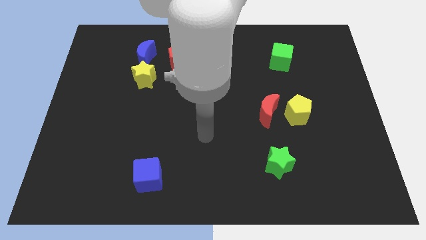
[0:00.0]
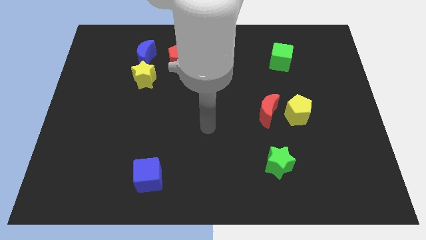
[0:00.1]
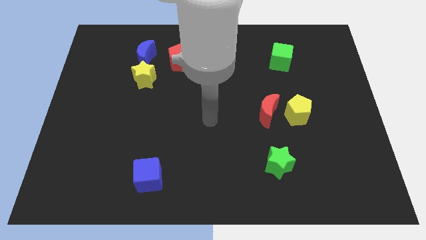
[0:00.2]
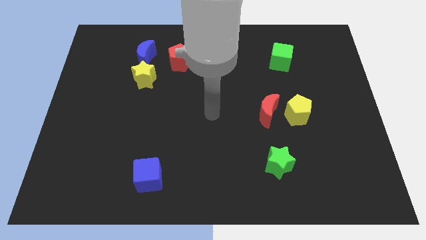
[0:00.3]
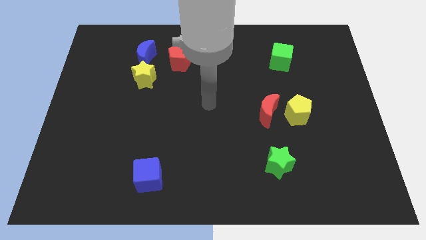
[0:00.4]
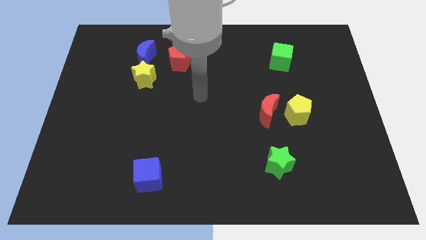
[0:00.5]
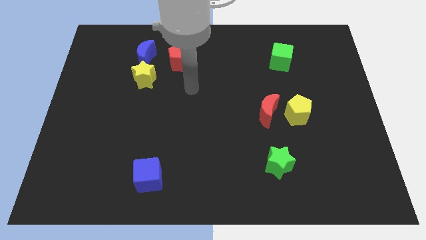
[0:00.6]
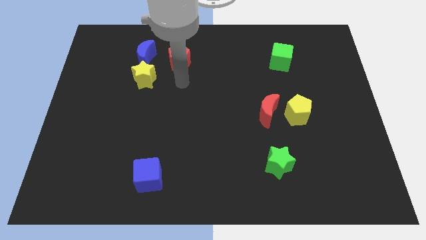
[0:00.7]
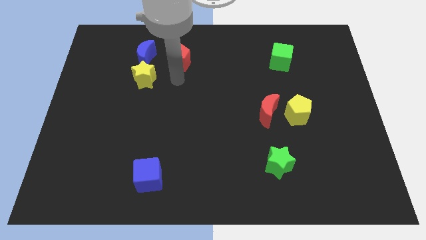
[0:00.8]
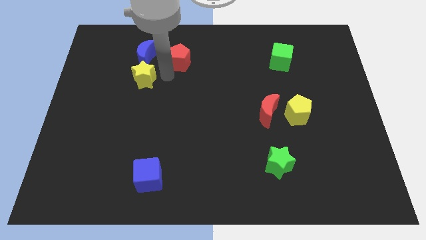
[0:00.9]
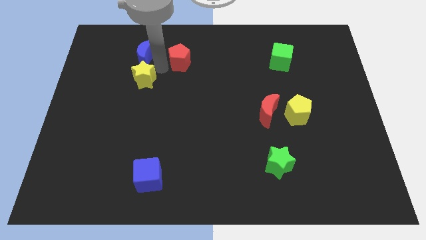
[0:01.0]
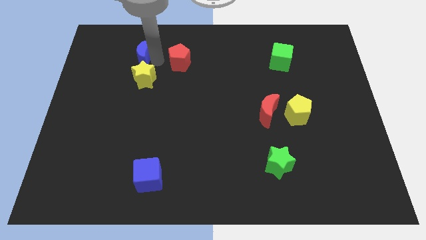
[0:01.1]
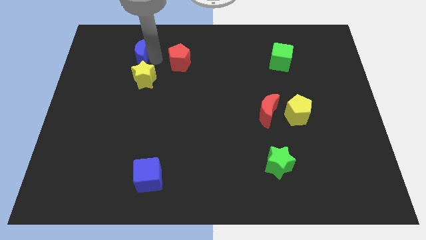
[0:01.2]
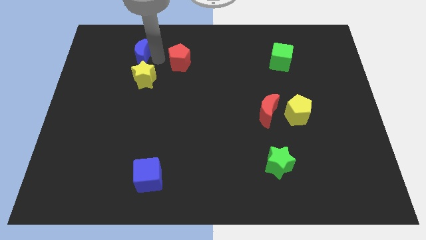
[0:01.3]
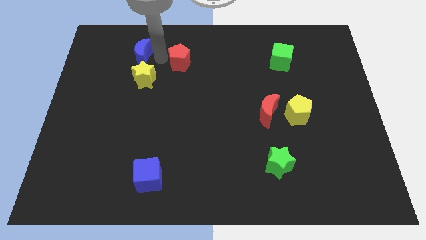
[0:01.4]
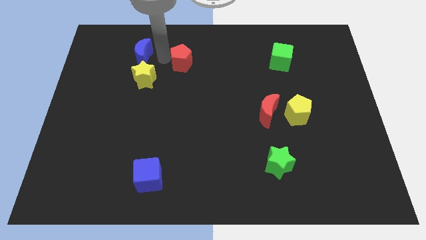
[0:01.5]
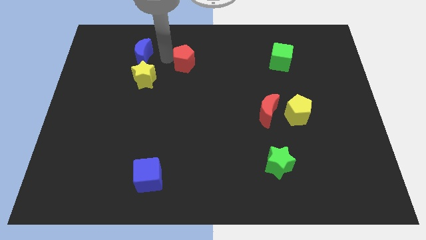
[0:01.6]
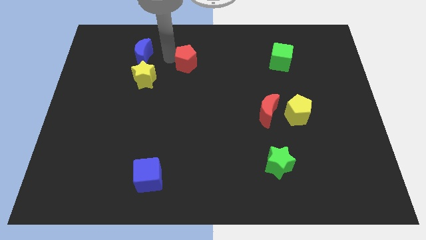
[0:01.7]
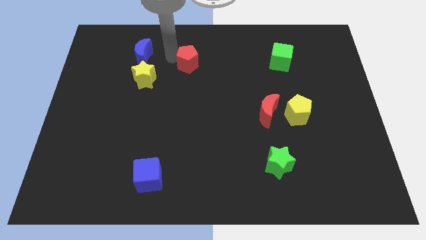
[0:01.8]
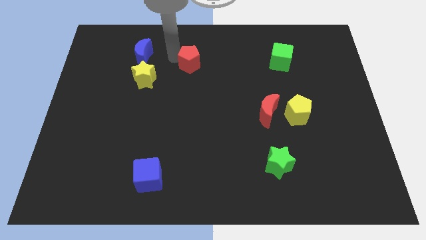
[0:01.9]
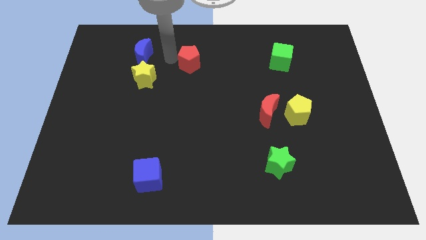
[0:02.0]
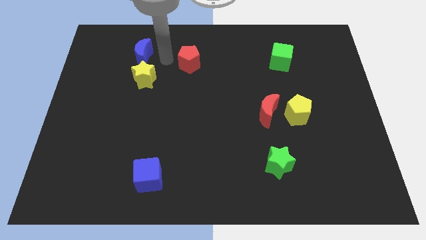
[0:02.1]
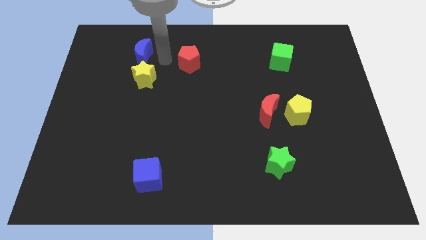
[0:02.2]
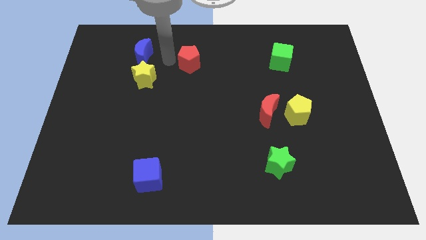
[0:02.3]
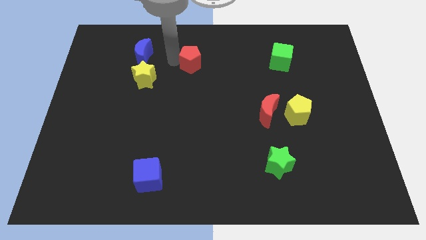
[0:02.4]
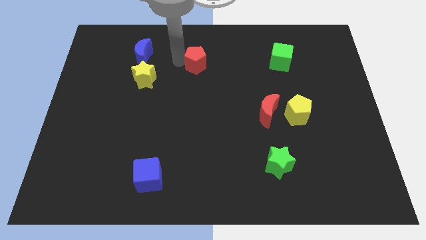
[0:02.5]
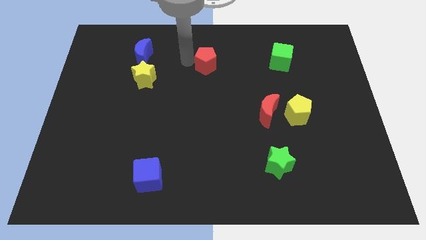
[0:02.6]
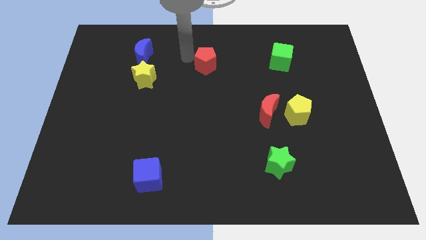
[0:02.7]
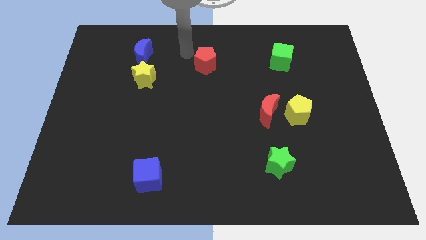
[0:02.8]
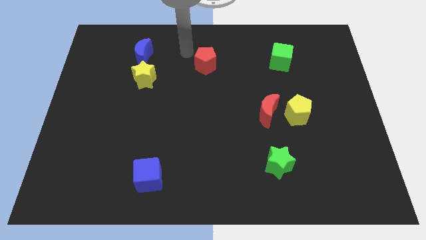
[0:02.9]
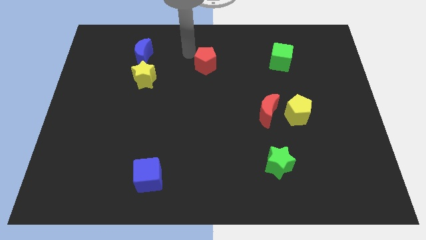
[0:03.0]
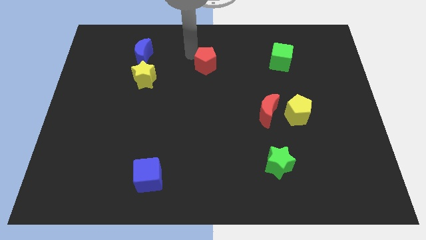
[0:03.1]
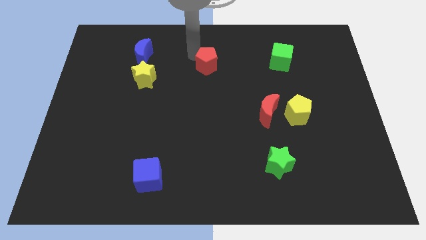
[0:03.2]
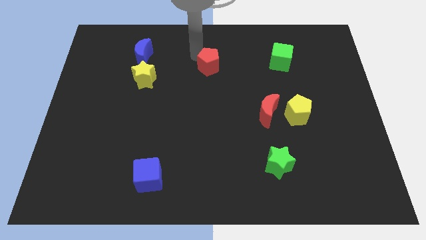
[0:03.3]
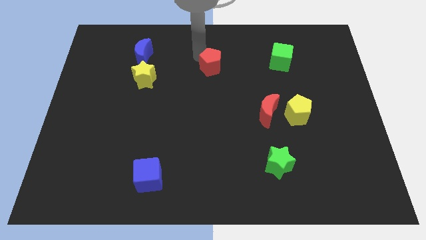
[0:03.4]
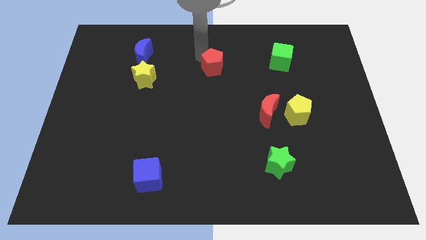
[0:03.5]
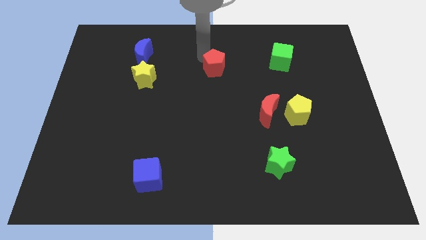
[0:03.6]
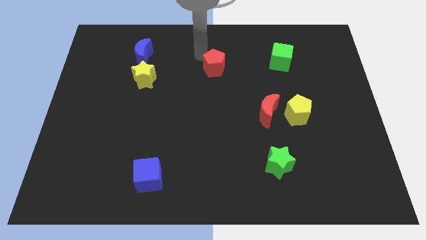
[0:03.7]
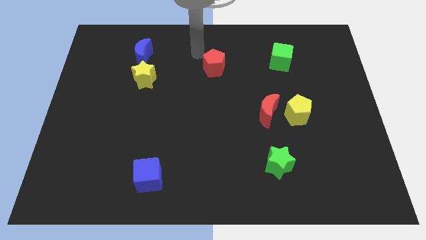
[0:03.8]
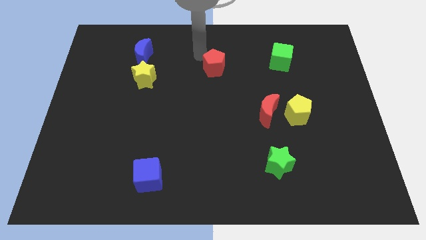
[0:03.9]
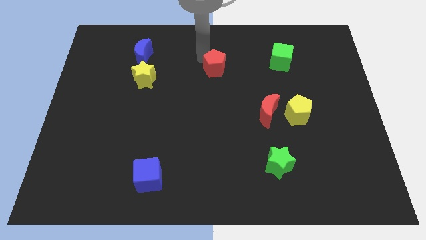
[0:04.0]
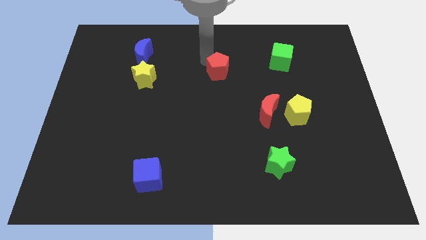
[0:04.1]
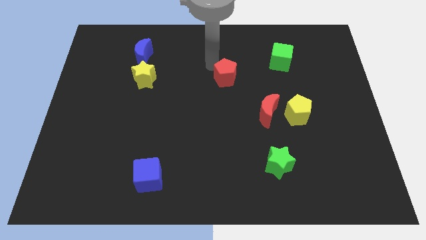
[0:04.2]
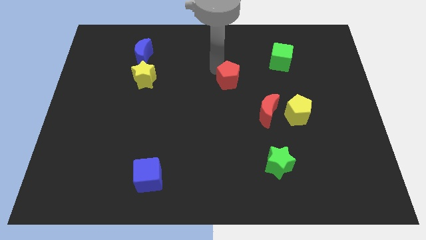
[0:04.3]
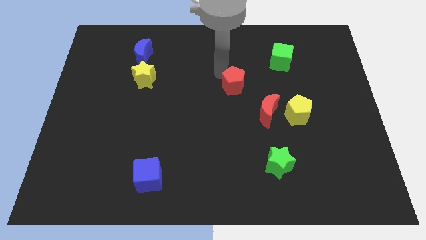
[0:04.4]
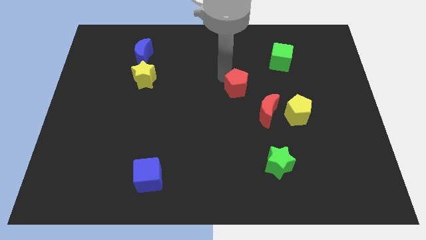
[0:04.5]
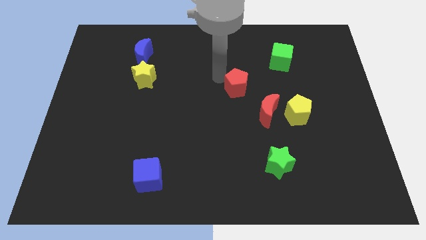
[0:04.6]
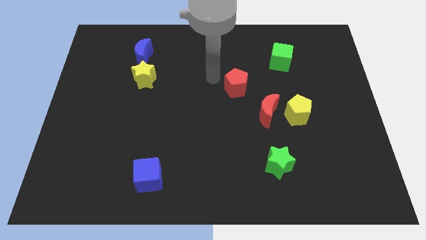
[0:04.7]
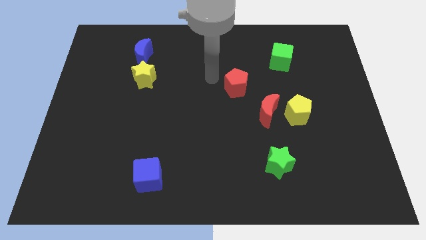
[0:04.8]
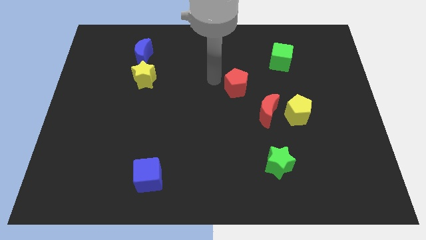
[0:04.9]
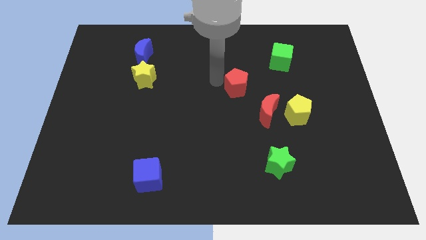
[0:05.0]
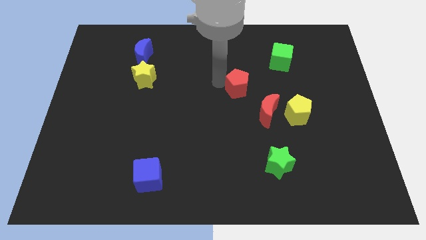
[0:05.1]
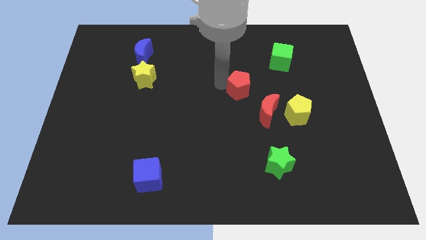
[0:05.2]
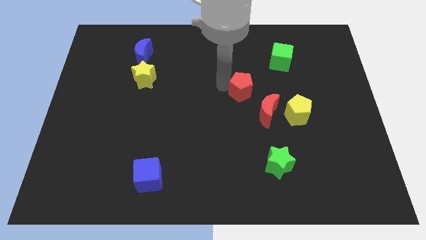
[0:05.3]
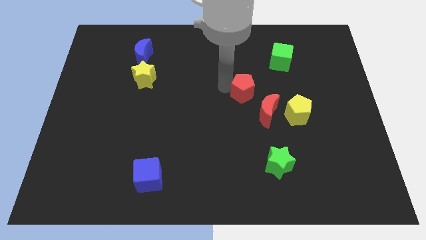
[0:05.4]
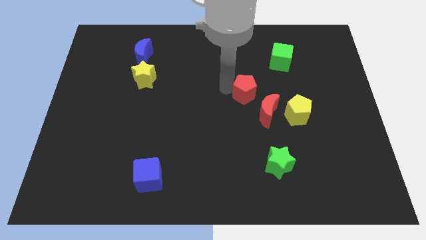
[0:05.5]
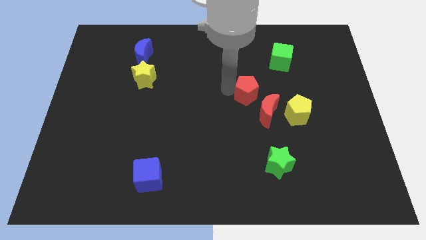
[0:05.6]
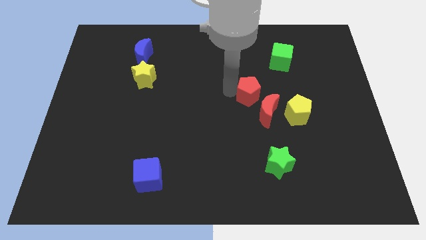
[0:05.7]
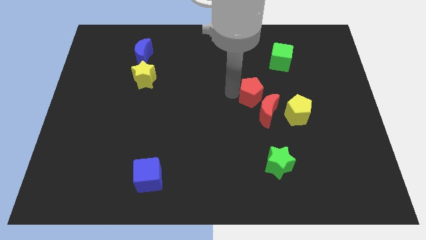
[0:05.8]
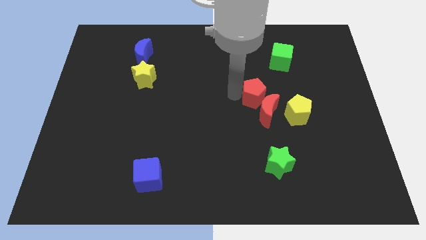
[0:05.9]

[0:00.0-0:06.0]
push the red pentagon to the top left of the yellow pentagon

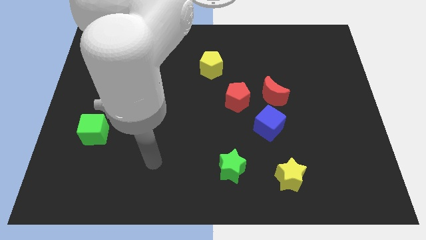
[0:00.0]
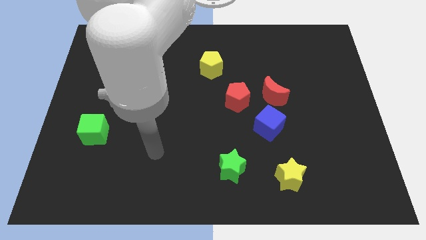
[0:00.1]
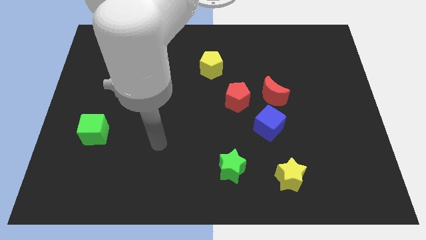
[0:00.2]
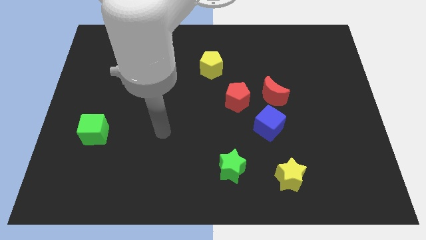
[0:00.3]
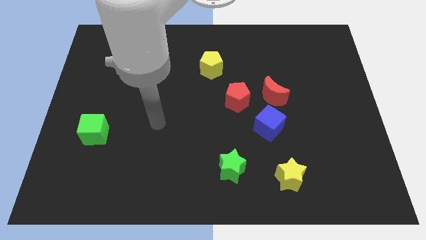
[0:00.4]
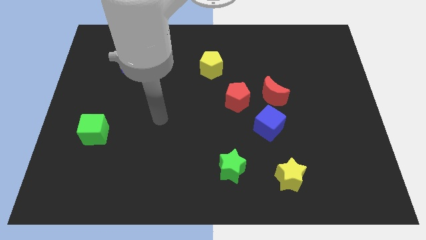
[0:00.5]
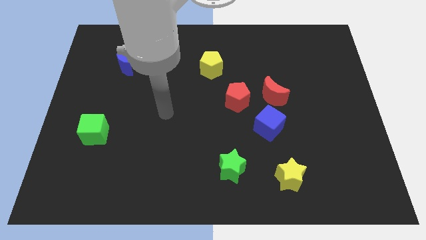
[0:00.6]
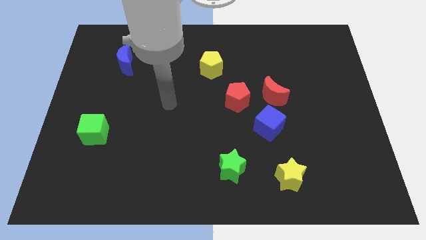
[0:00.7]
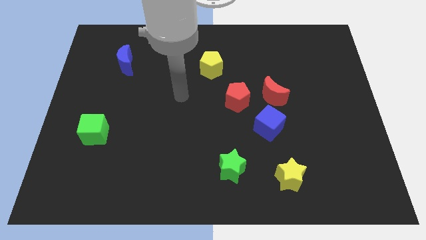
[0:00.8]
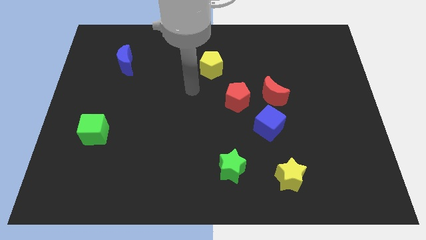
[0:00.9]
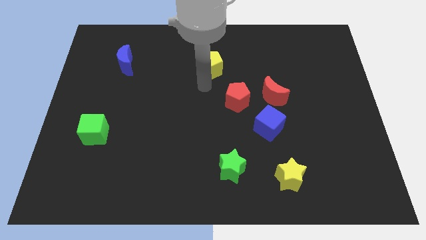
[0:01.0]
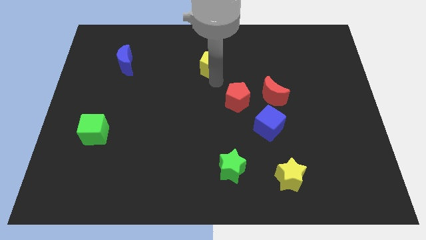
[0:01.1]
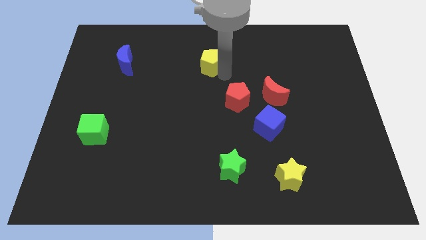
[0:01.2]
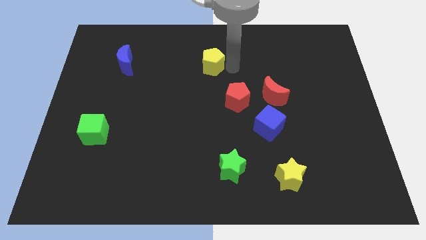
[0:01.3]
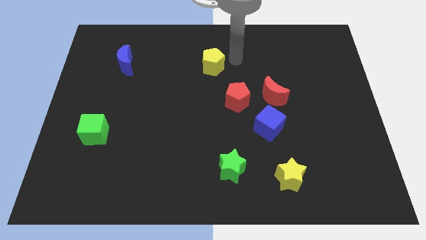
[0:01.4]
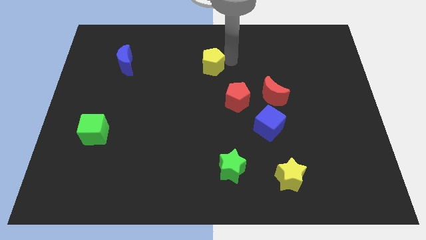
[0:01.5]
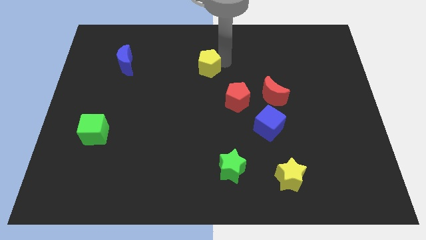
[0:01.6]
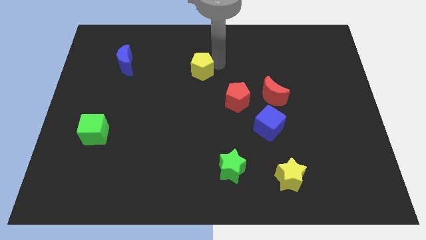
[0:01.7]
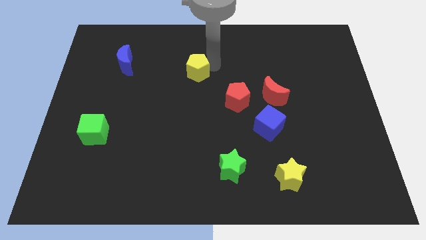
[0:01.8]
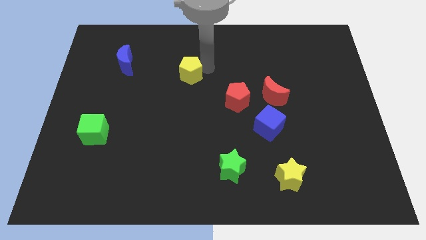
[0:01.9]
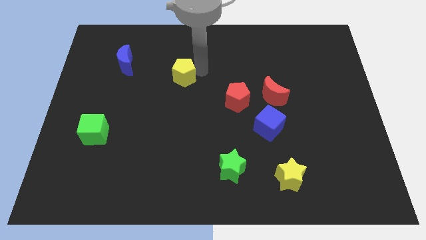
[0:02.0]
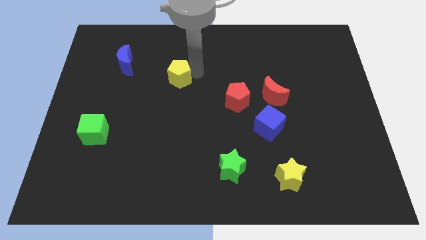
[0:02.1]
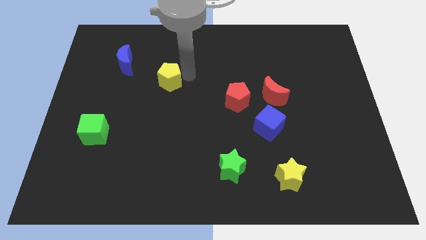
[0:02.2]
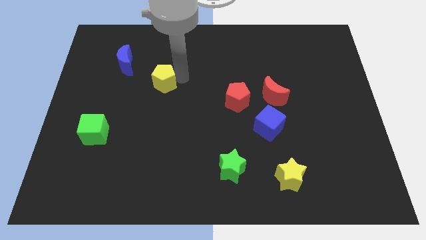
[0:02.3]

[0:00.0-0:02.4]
put the yellow pentagon diagonally down and to the right of the blue moon
